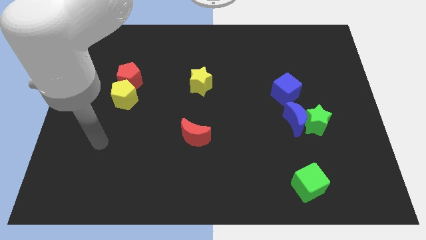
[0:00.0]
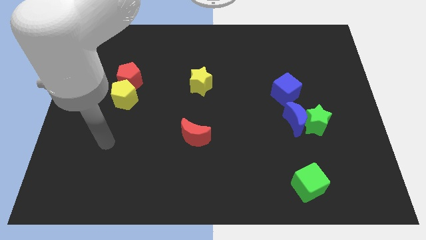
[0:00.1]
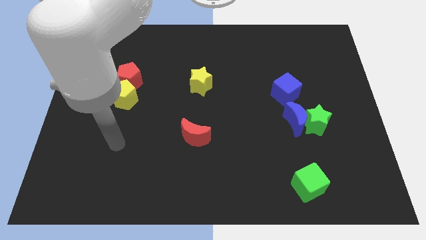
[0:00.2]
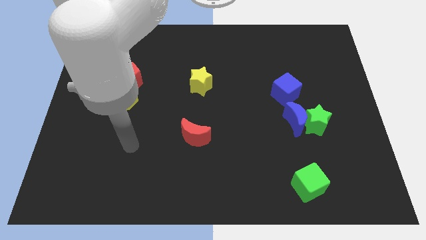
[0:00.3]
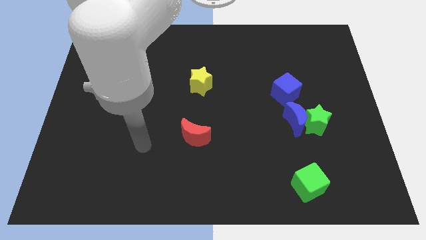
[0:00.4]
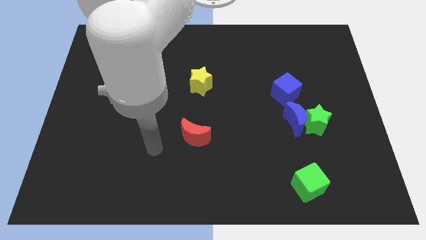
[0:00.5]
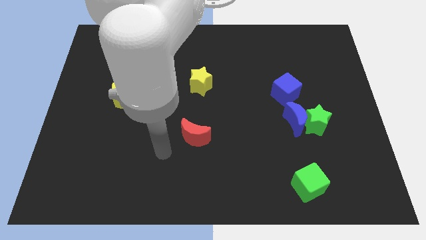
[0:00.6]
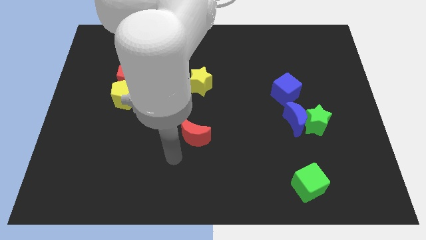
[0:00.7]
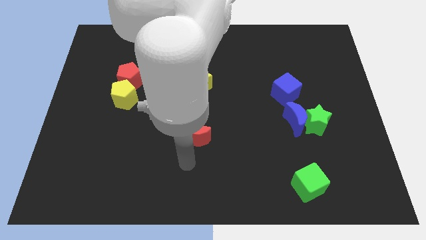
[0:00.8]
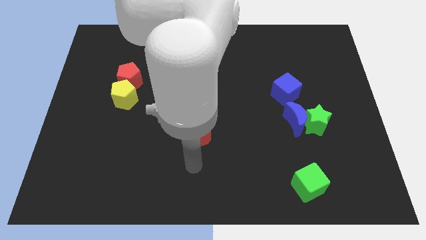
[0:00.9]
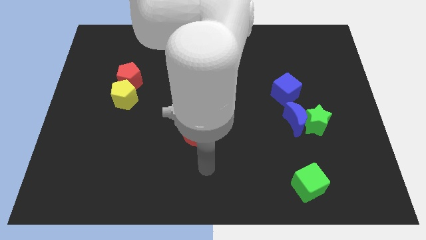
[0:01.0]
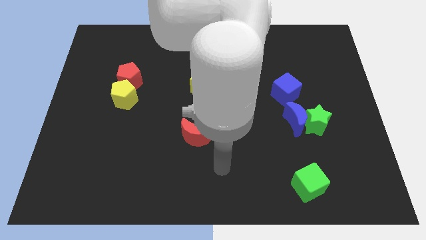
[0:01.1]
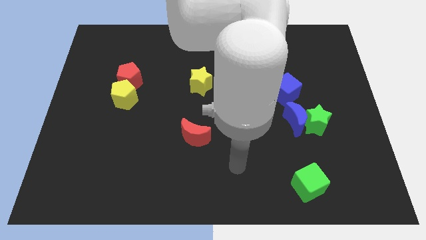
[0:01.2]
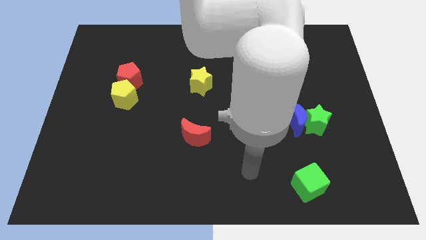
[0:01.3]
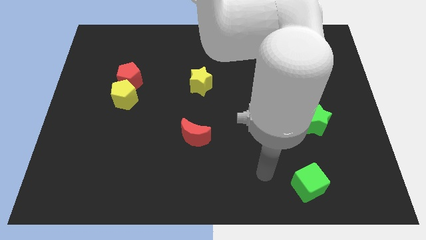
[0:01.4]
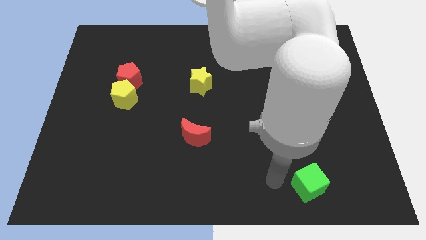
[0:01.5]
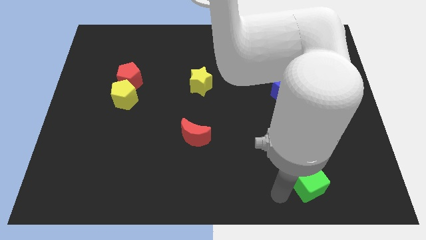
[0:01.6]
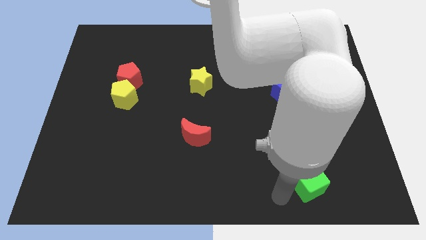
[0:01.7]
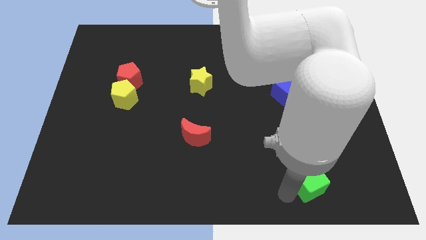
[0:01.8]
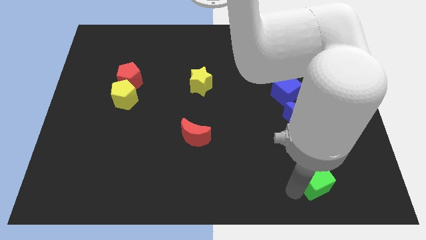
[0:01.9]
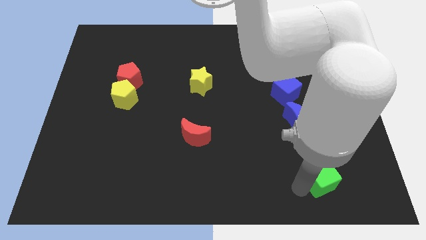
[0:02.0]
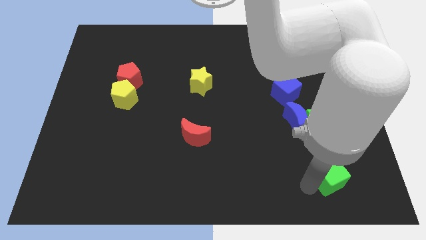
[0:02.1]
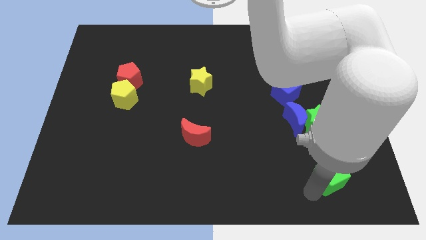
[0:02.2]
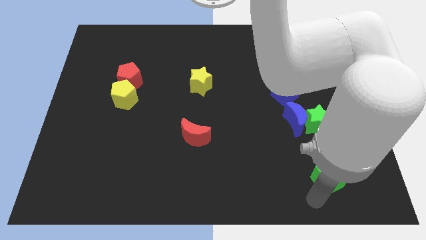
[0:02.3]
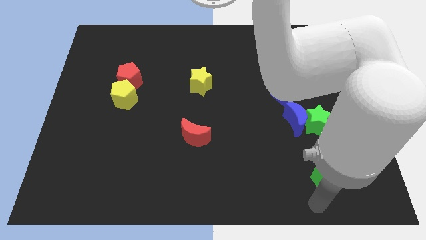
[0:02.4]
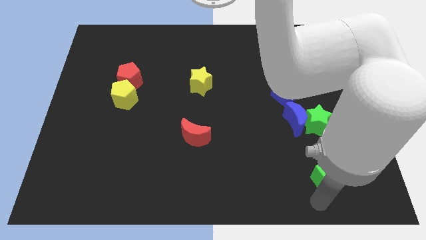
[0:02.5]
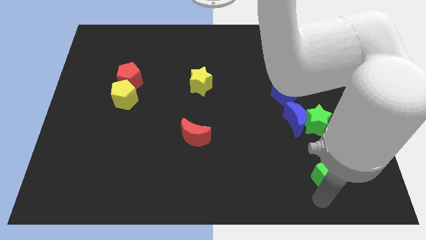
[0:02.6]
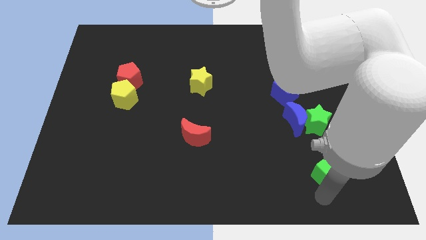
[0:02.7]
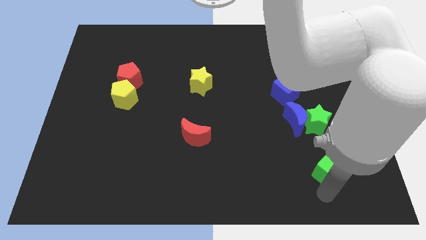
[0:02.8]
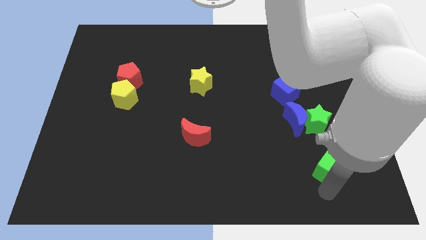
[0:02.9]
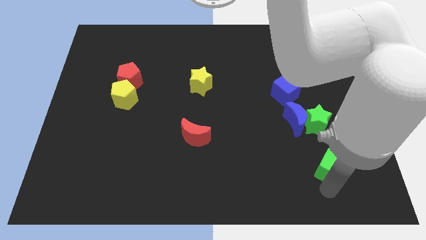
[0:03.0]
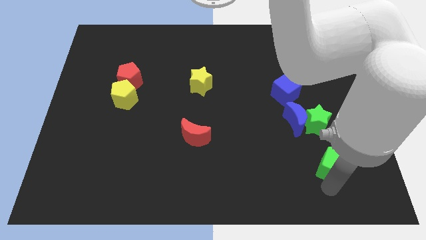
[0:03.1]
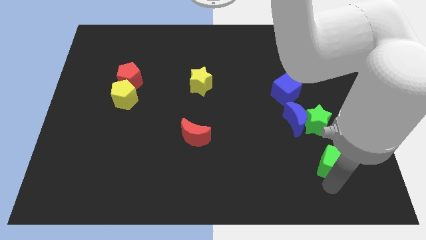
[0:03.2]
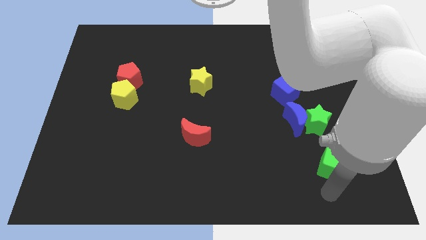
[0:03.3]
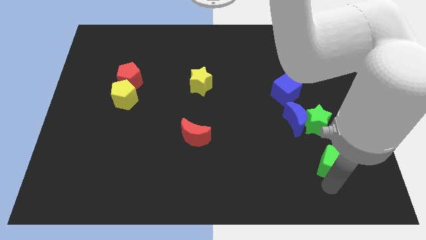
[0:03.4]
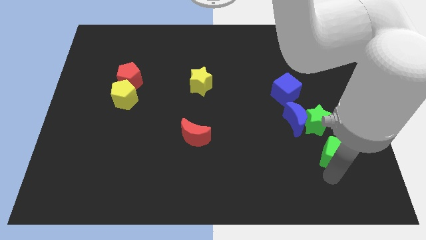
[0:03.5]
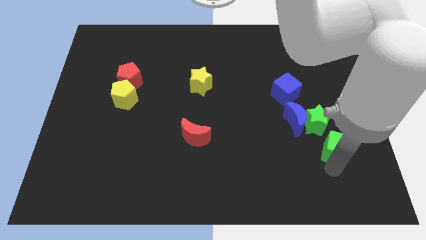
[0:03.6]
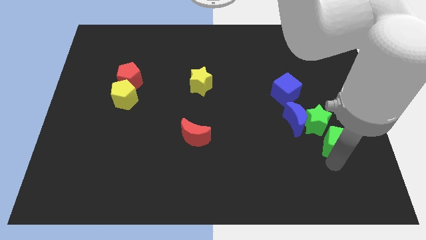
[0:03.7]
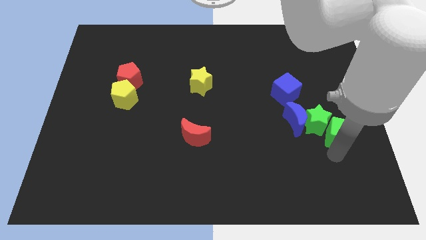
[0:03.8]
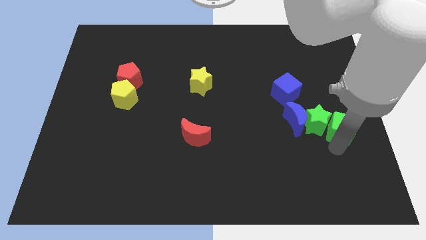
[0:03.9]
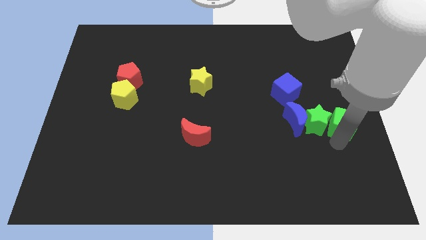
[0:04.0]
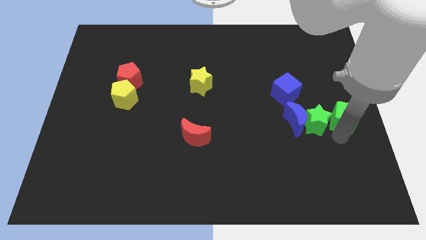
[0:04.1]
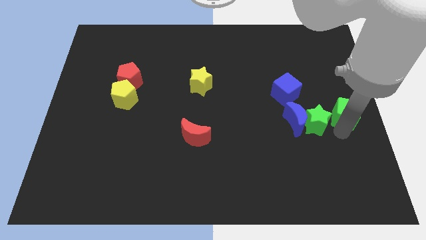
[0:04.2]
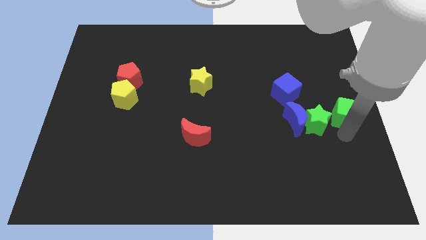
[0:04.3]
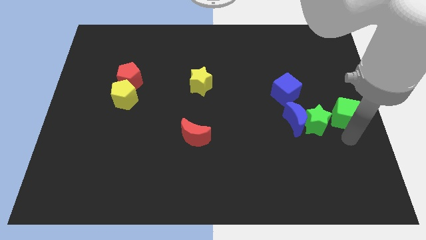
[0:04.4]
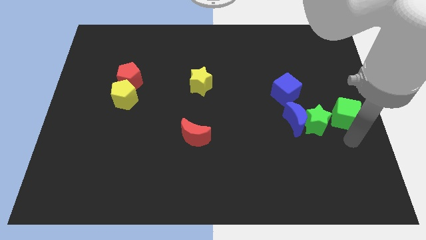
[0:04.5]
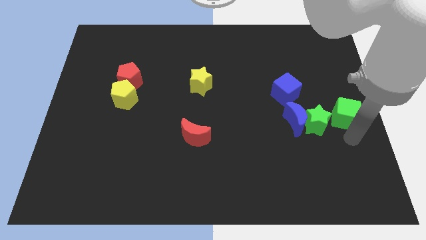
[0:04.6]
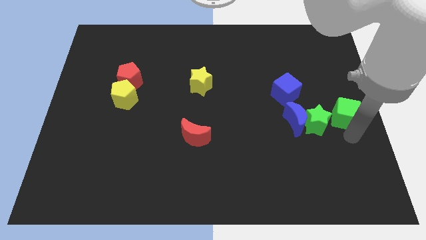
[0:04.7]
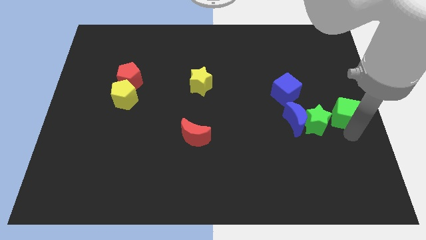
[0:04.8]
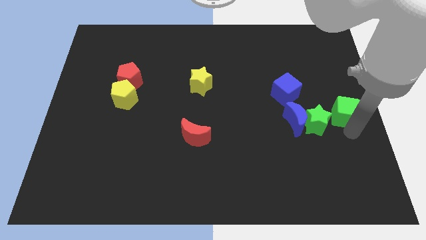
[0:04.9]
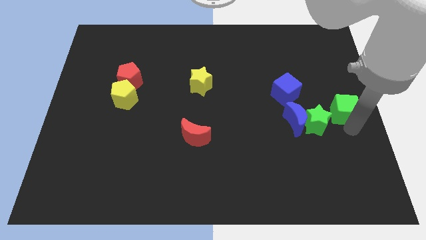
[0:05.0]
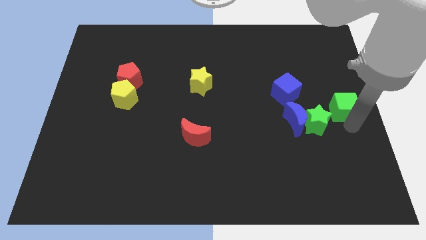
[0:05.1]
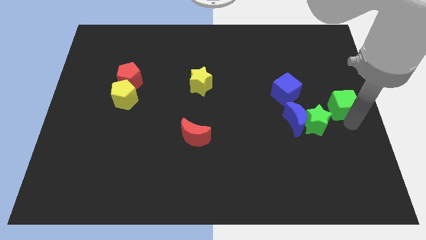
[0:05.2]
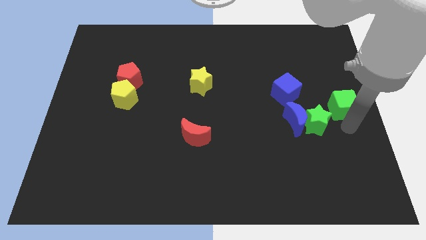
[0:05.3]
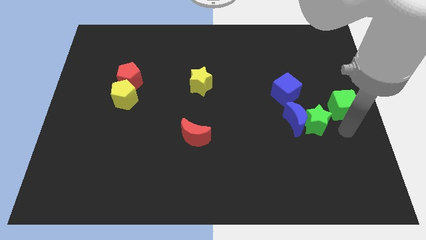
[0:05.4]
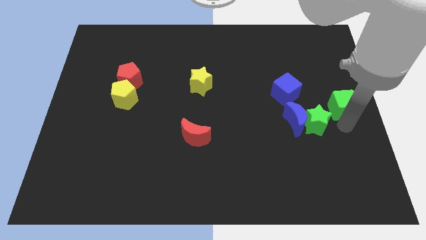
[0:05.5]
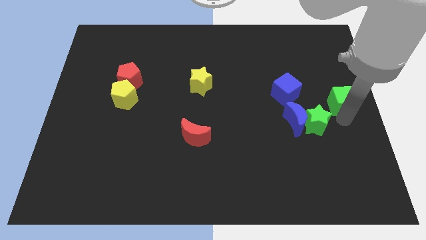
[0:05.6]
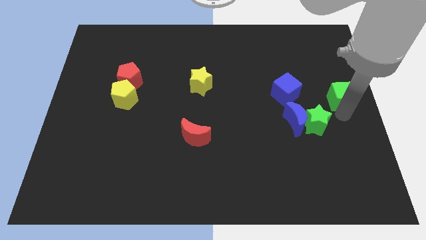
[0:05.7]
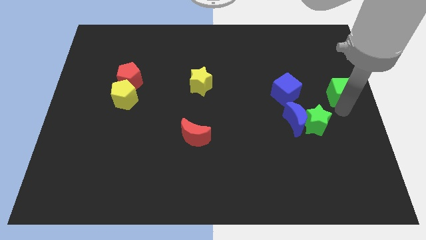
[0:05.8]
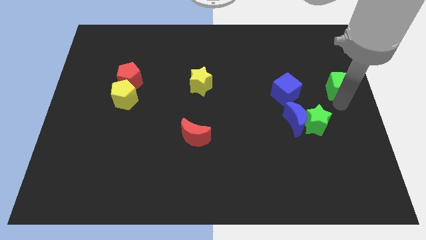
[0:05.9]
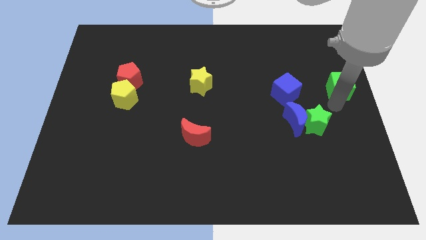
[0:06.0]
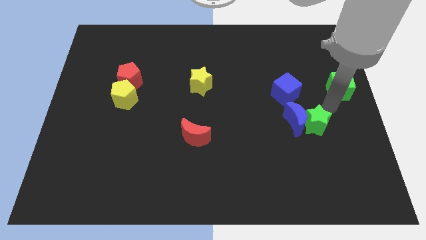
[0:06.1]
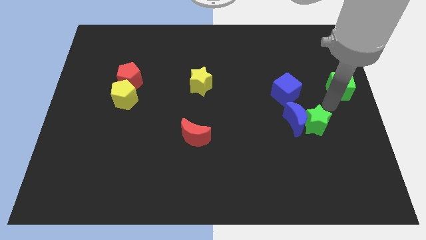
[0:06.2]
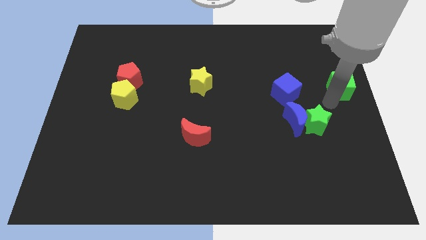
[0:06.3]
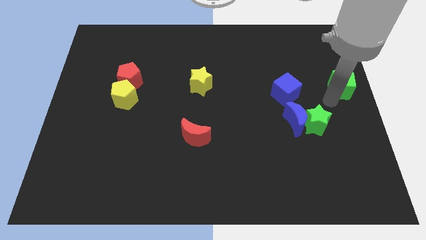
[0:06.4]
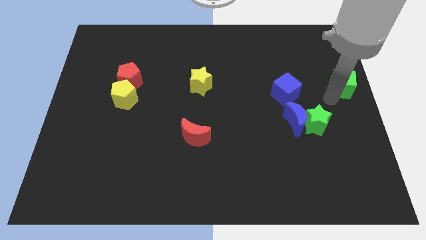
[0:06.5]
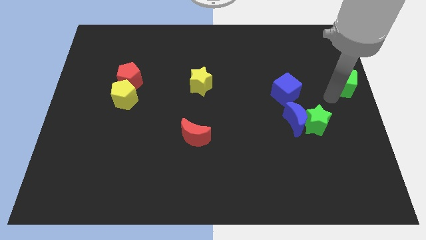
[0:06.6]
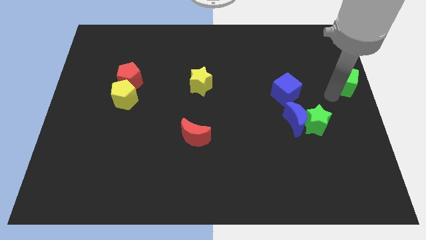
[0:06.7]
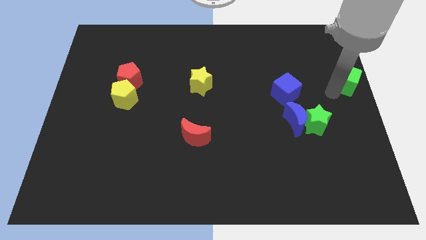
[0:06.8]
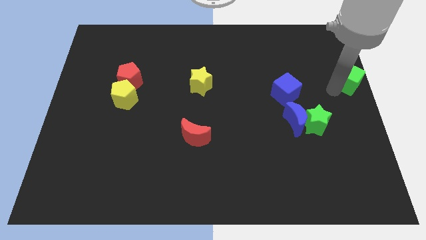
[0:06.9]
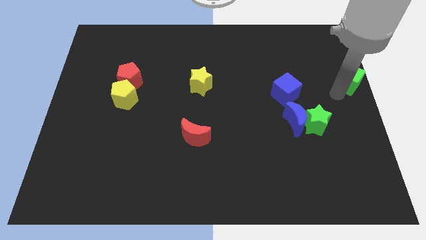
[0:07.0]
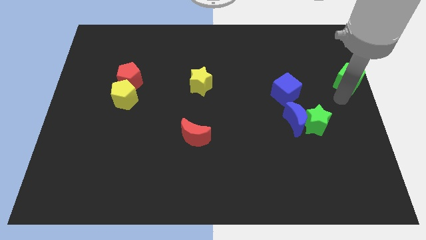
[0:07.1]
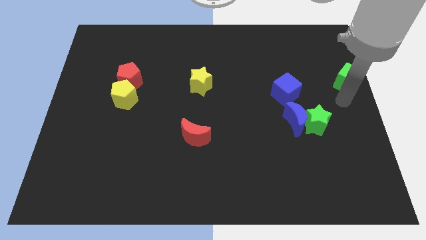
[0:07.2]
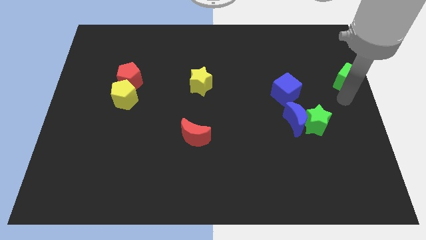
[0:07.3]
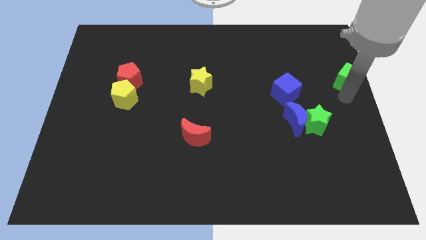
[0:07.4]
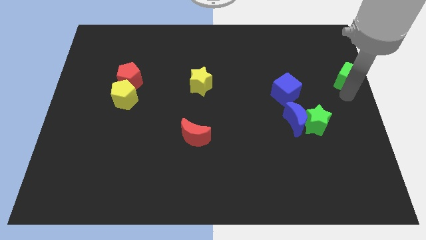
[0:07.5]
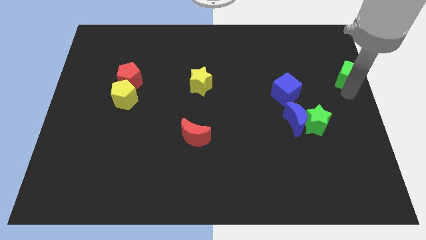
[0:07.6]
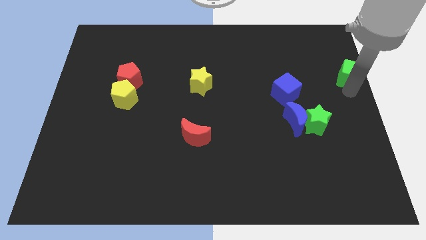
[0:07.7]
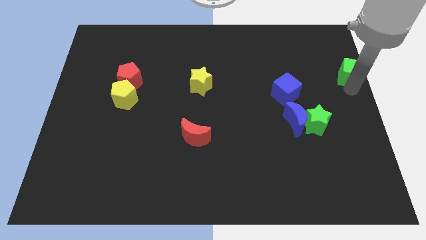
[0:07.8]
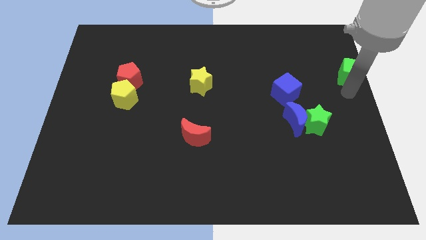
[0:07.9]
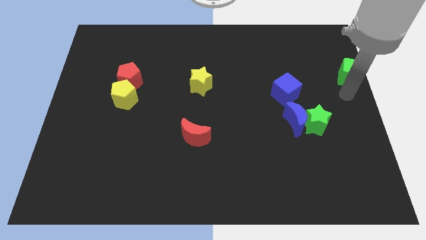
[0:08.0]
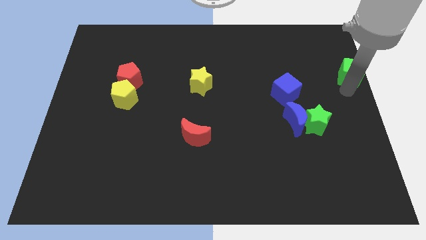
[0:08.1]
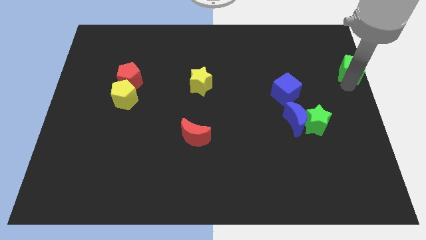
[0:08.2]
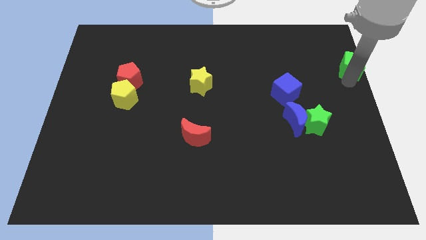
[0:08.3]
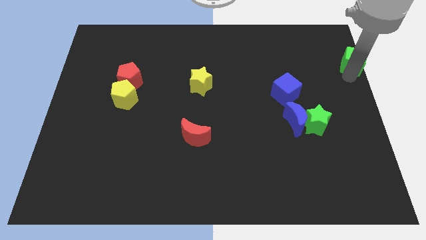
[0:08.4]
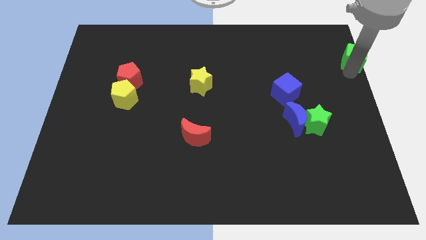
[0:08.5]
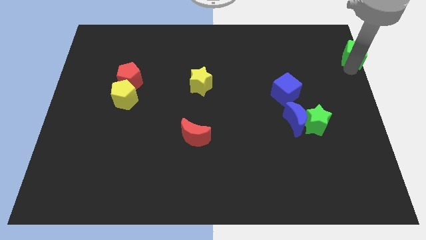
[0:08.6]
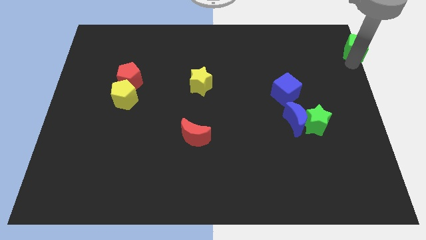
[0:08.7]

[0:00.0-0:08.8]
slide the green cube to the top right
